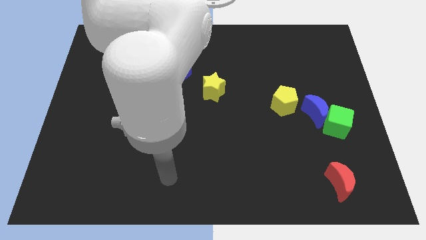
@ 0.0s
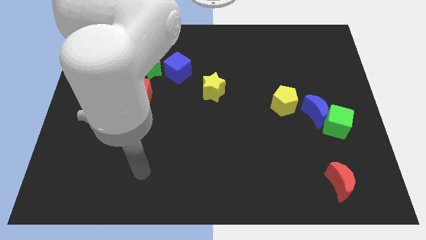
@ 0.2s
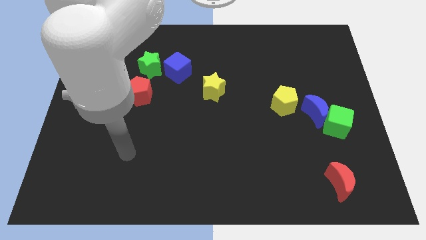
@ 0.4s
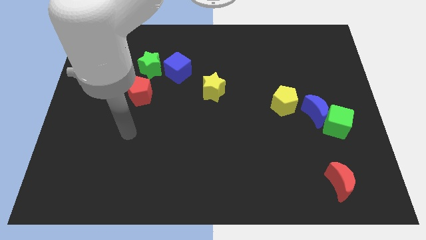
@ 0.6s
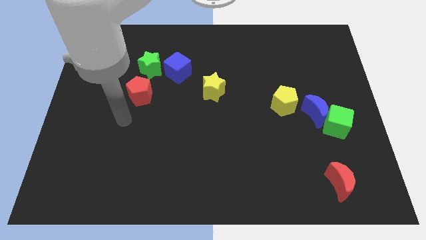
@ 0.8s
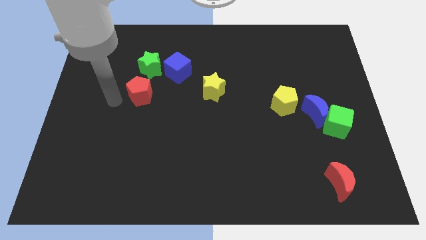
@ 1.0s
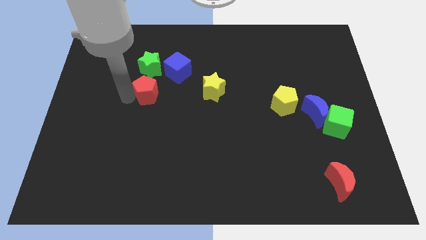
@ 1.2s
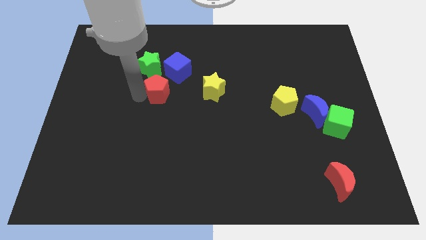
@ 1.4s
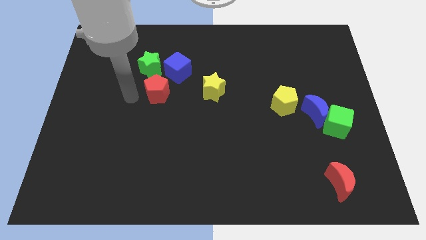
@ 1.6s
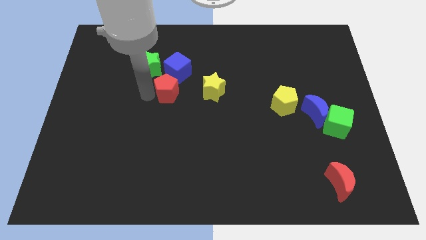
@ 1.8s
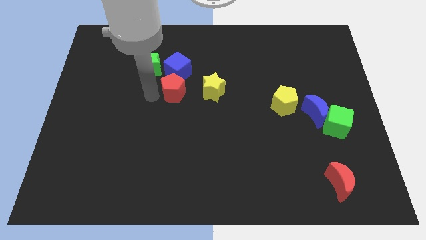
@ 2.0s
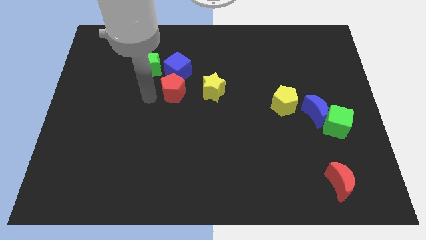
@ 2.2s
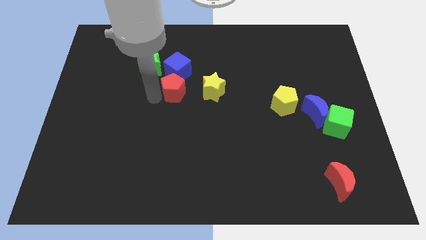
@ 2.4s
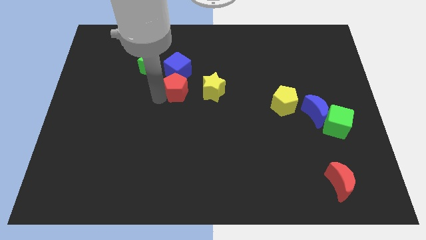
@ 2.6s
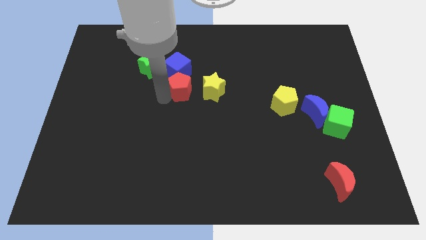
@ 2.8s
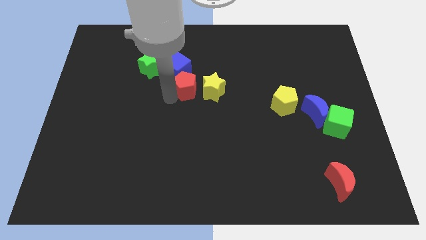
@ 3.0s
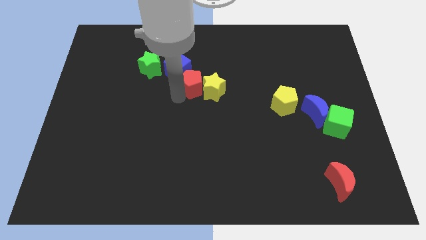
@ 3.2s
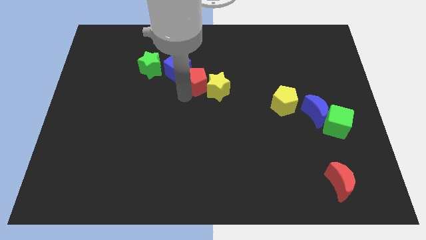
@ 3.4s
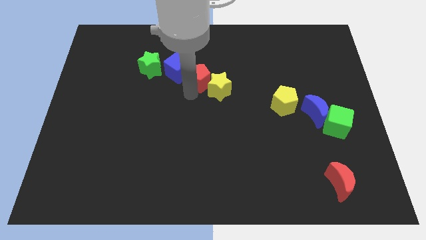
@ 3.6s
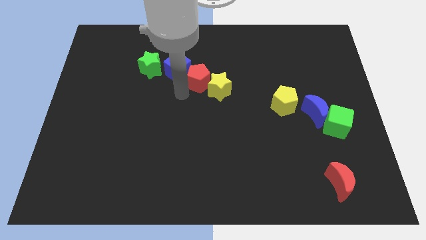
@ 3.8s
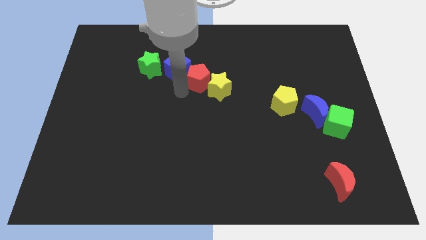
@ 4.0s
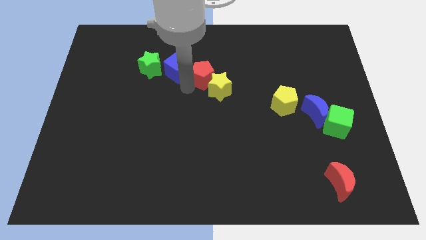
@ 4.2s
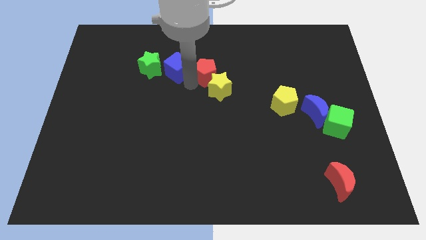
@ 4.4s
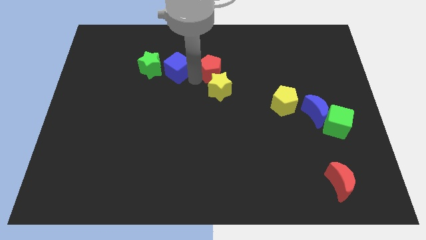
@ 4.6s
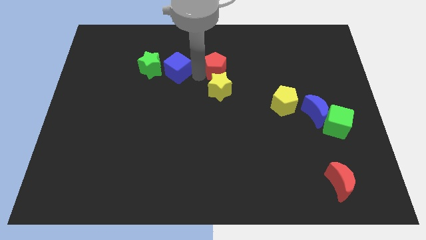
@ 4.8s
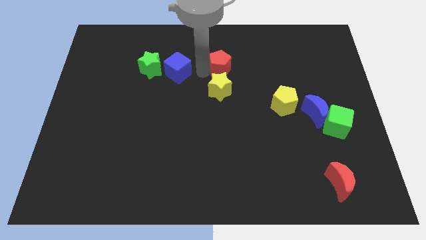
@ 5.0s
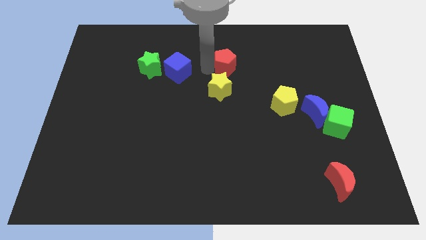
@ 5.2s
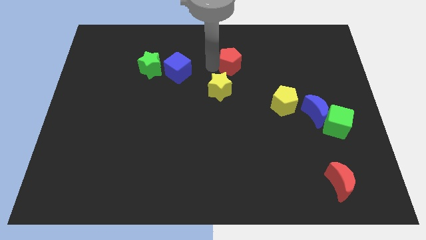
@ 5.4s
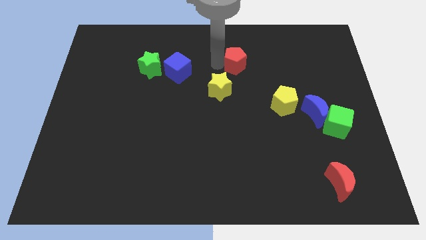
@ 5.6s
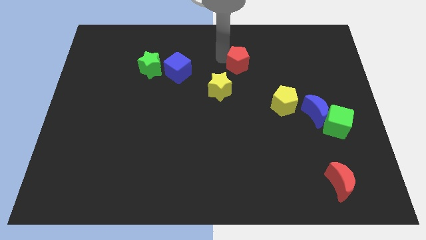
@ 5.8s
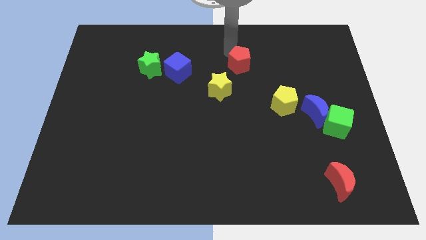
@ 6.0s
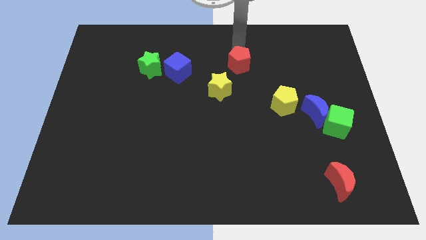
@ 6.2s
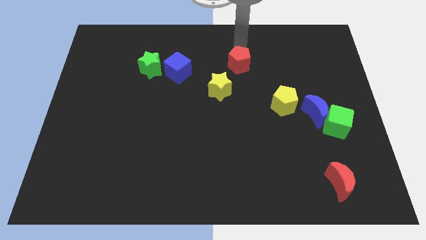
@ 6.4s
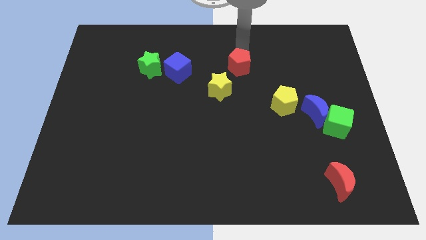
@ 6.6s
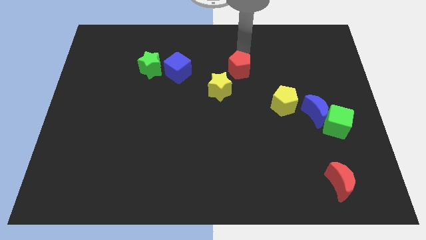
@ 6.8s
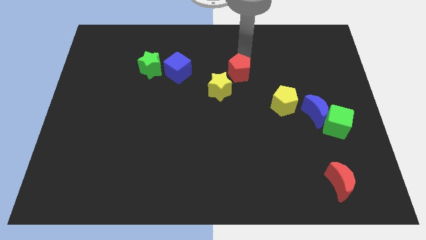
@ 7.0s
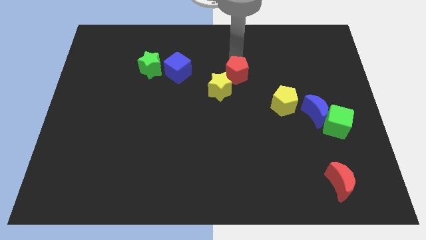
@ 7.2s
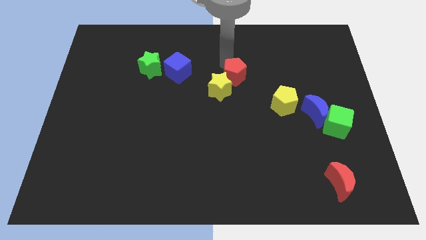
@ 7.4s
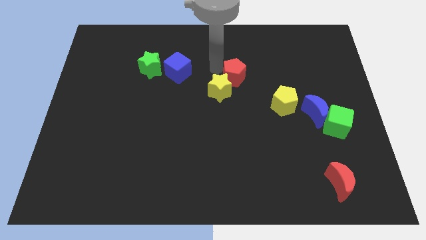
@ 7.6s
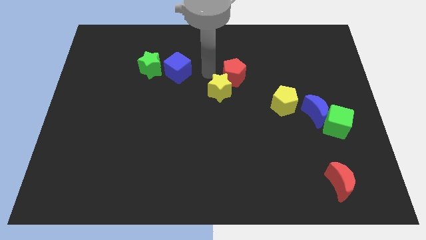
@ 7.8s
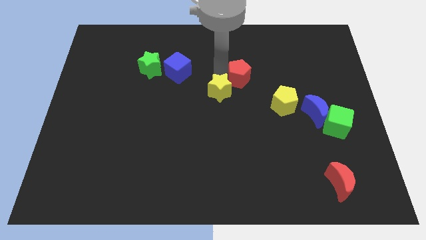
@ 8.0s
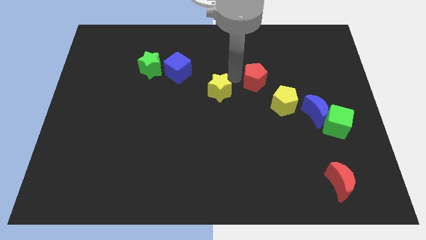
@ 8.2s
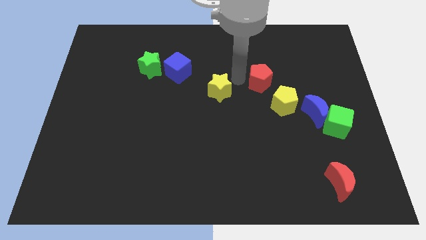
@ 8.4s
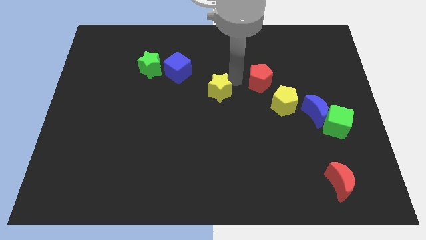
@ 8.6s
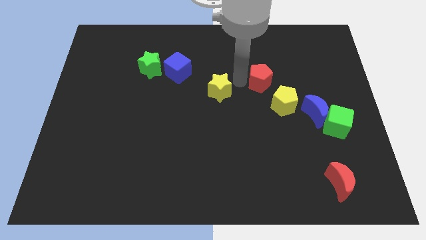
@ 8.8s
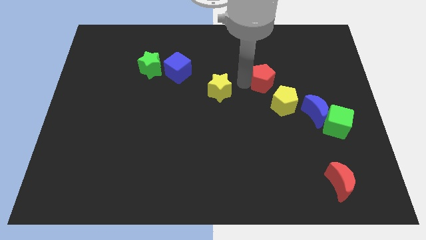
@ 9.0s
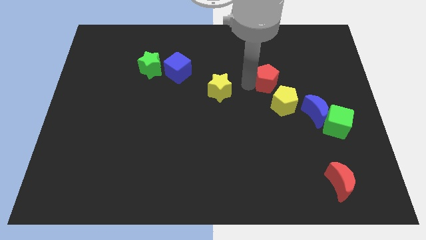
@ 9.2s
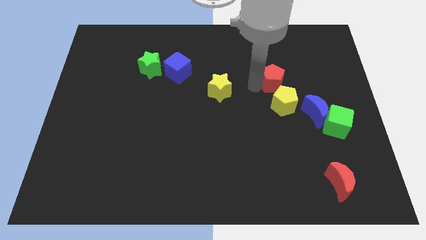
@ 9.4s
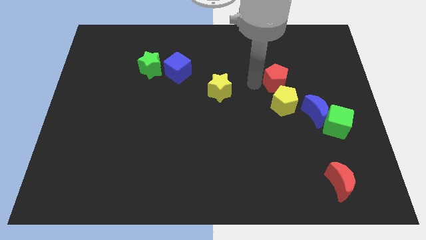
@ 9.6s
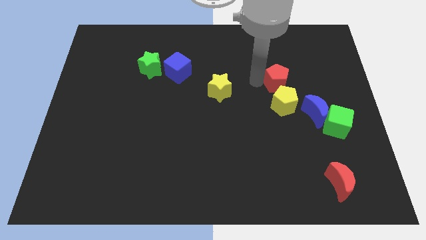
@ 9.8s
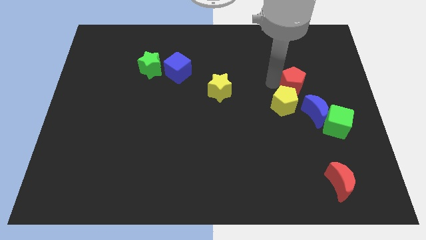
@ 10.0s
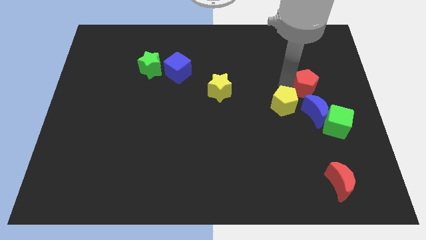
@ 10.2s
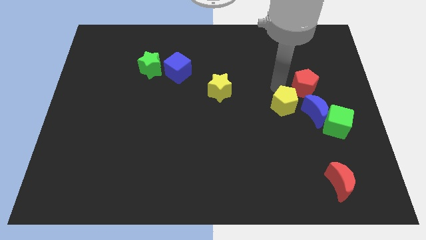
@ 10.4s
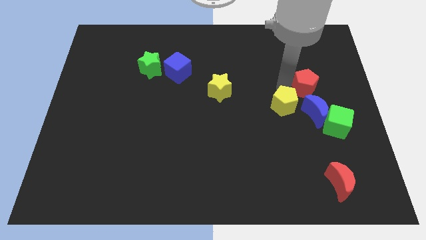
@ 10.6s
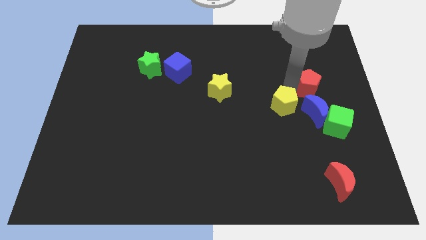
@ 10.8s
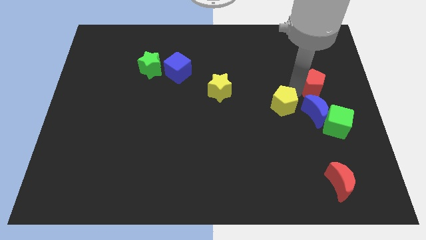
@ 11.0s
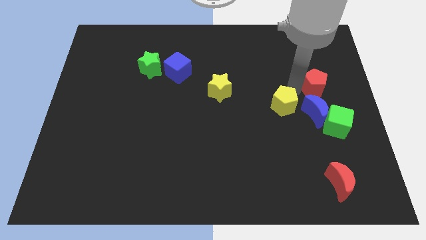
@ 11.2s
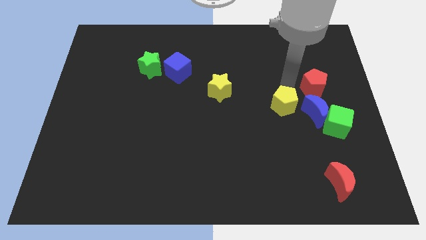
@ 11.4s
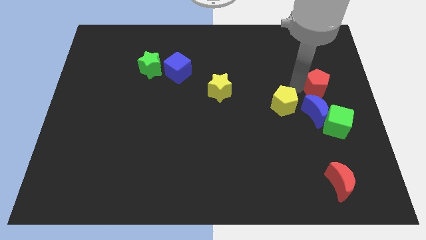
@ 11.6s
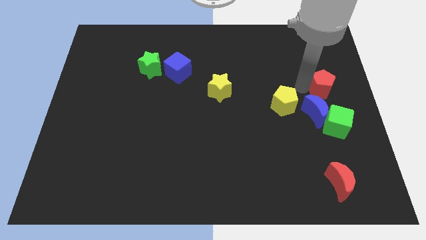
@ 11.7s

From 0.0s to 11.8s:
slide the red pentagon to the right side of the board
